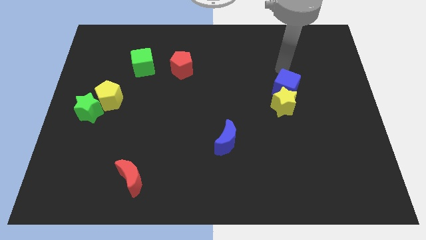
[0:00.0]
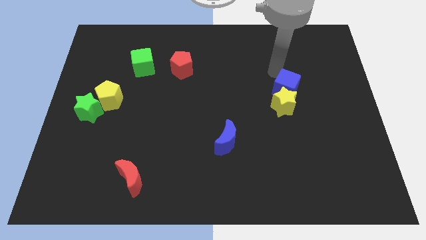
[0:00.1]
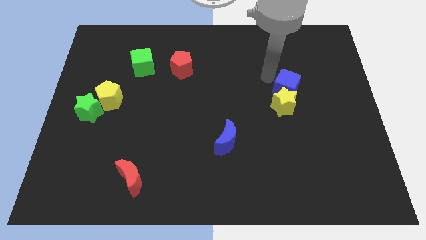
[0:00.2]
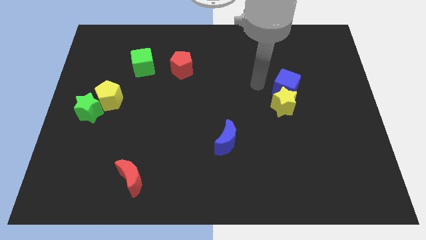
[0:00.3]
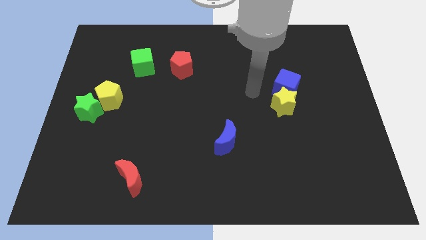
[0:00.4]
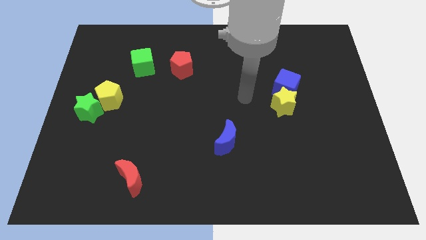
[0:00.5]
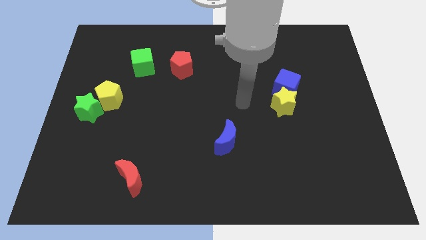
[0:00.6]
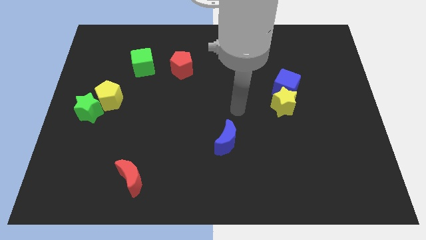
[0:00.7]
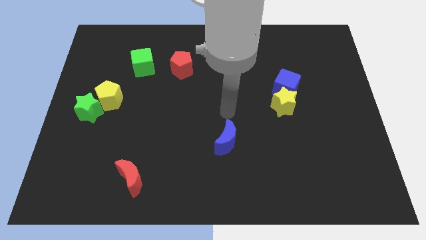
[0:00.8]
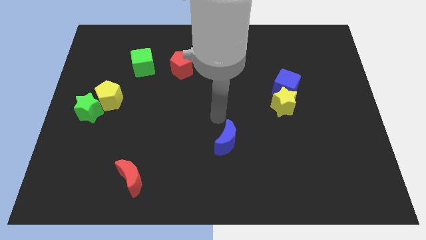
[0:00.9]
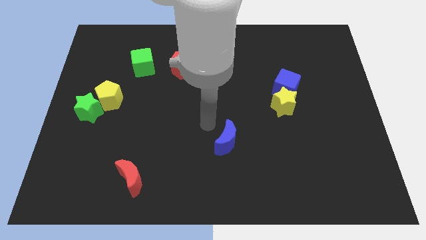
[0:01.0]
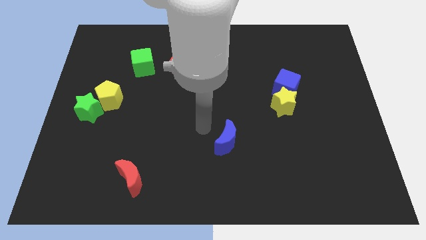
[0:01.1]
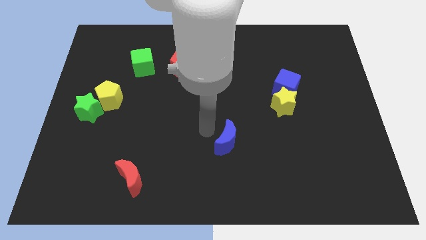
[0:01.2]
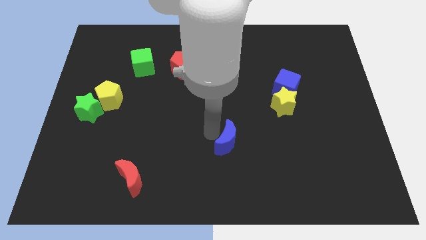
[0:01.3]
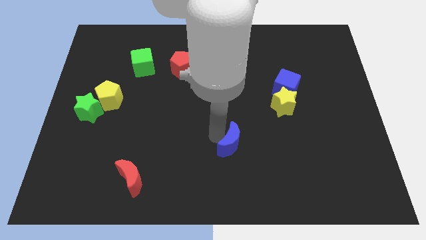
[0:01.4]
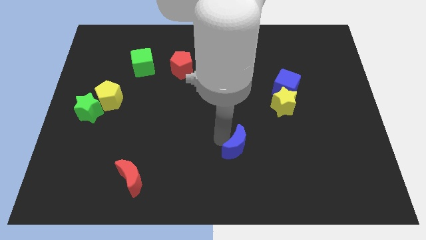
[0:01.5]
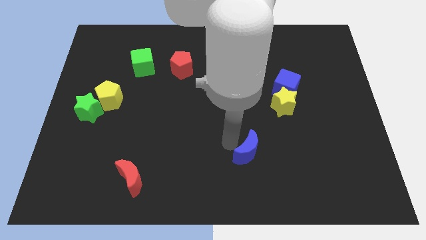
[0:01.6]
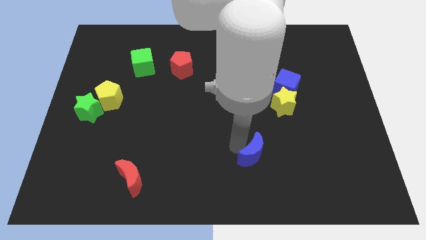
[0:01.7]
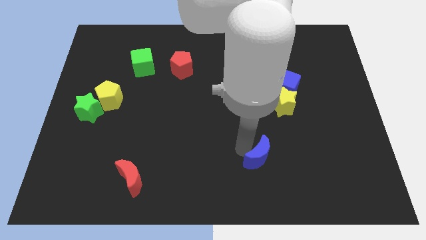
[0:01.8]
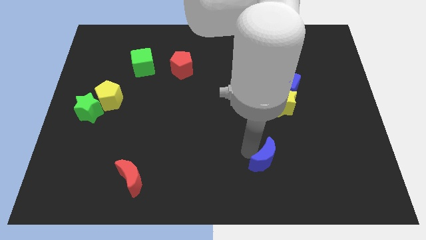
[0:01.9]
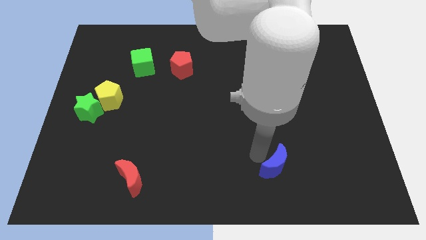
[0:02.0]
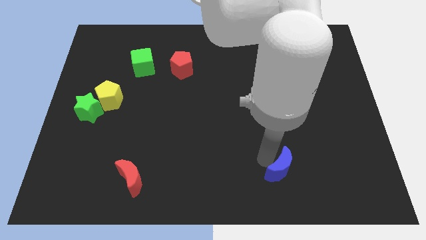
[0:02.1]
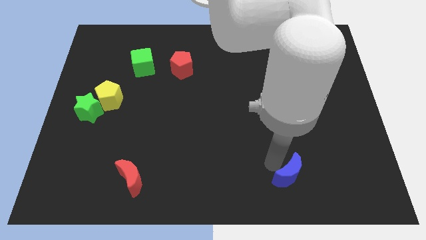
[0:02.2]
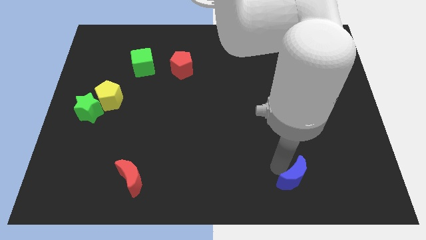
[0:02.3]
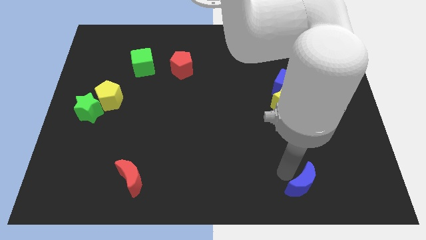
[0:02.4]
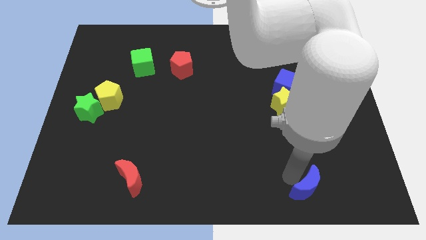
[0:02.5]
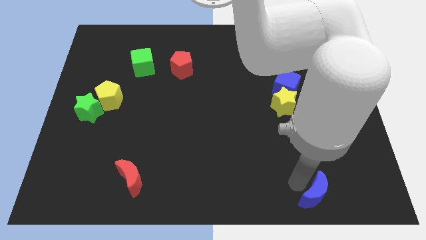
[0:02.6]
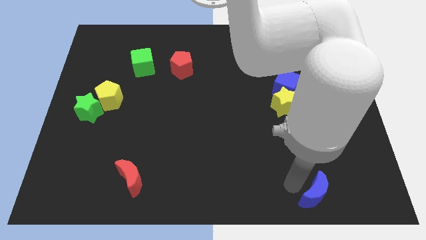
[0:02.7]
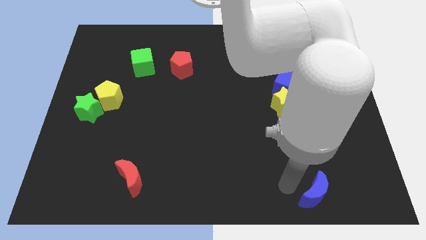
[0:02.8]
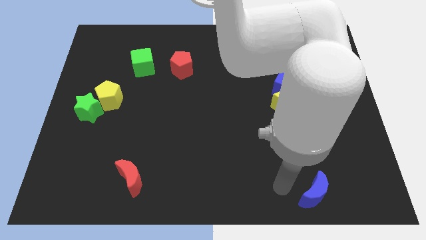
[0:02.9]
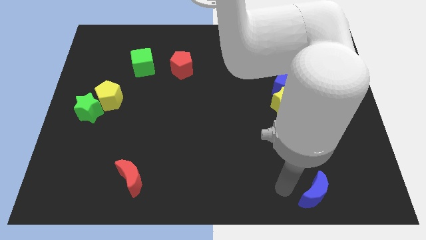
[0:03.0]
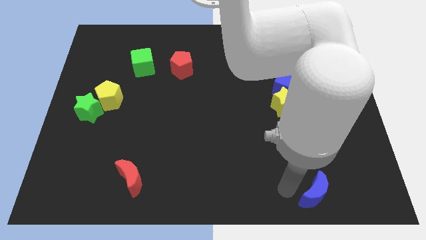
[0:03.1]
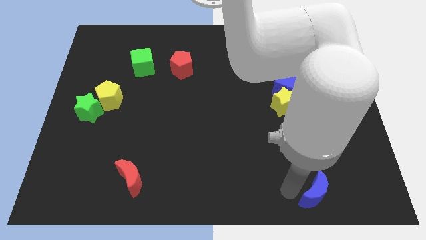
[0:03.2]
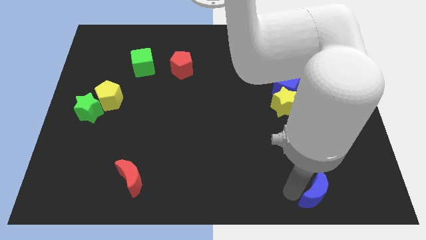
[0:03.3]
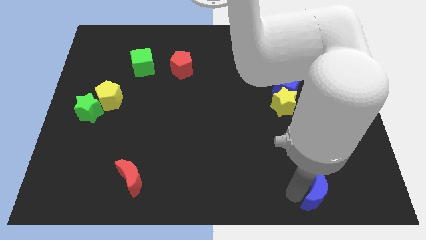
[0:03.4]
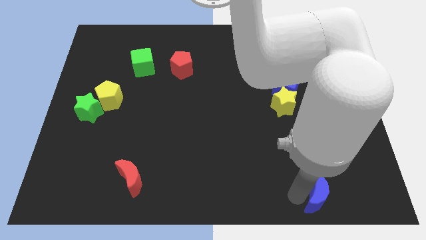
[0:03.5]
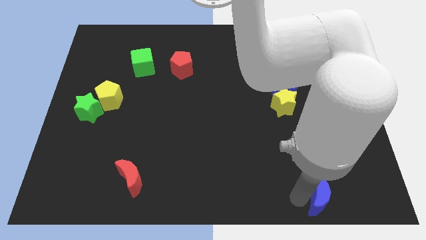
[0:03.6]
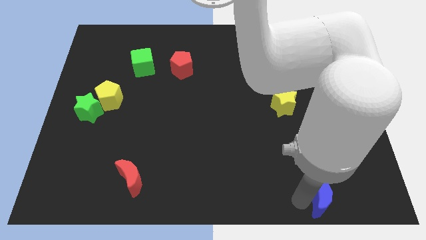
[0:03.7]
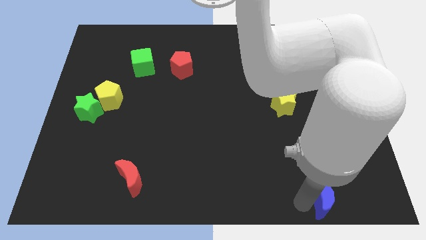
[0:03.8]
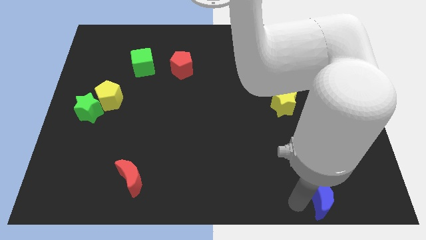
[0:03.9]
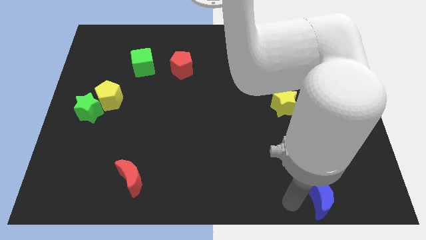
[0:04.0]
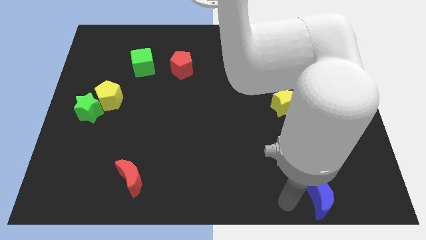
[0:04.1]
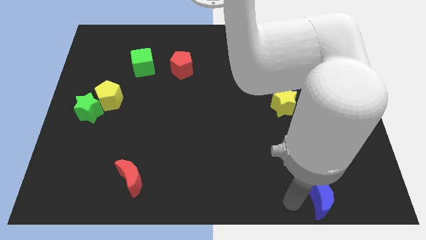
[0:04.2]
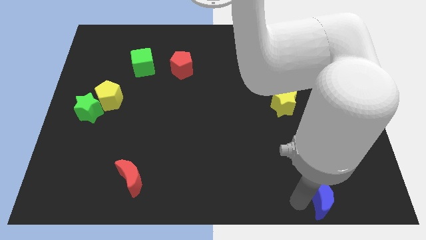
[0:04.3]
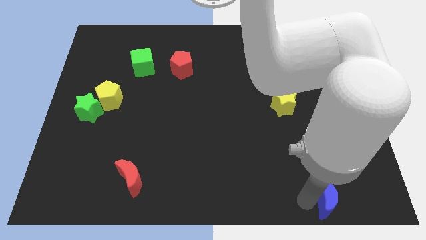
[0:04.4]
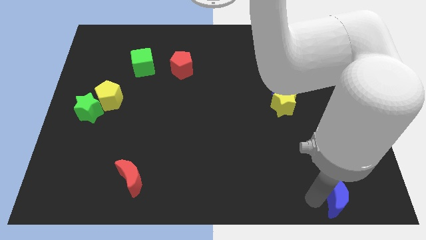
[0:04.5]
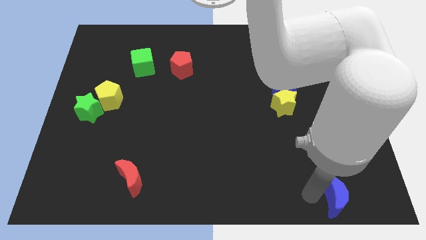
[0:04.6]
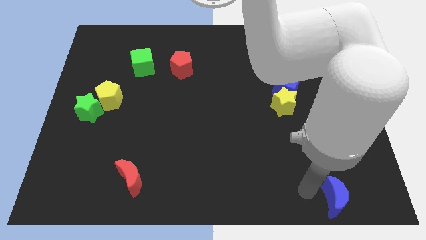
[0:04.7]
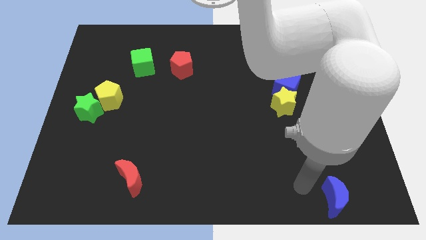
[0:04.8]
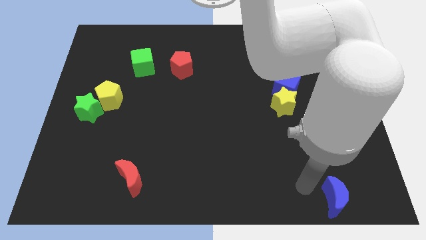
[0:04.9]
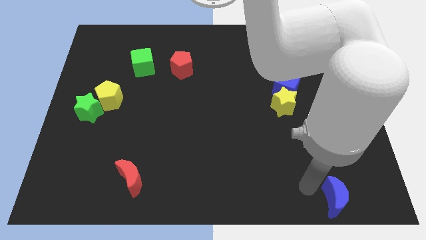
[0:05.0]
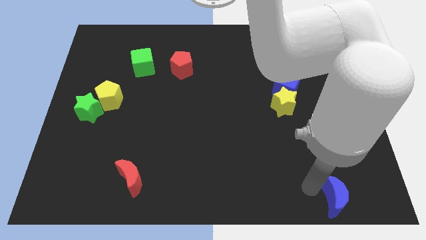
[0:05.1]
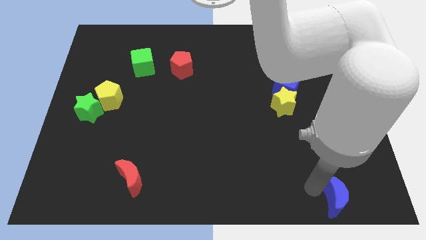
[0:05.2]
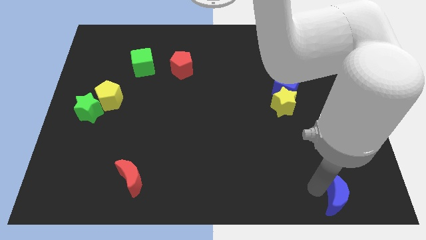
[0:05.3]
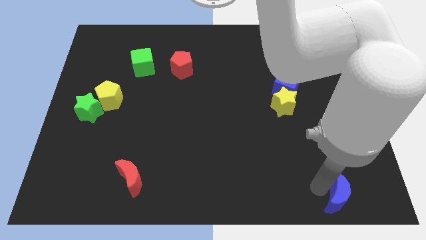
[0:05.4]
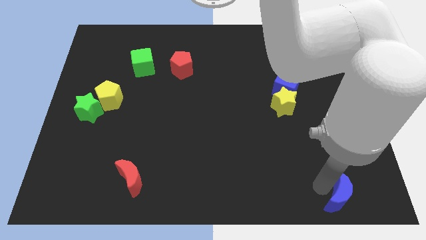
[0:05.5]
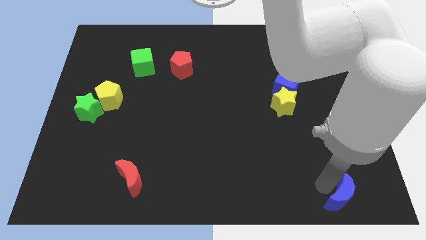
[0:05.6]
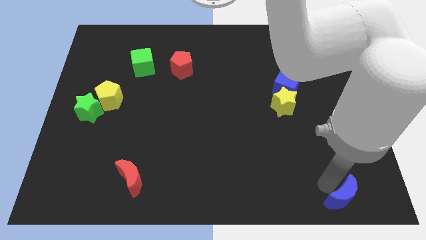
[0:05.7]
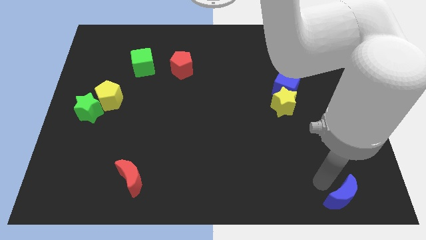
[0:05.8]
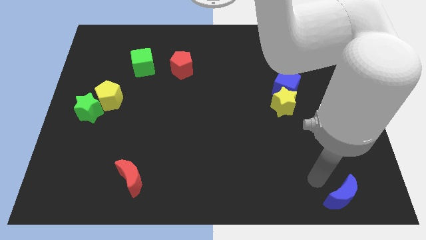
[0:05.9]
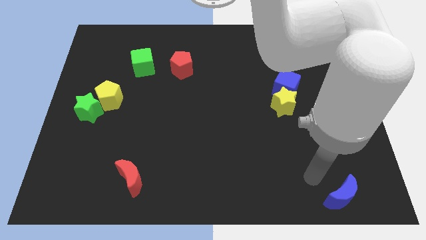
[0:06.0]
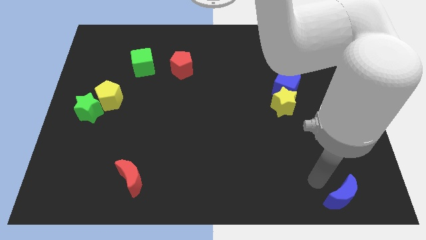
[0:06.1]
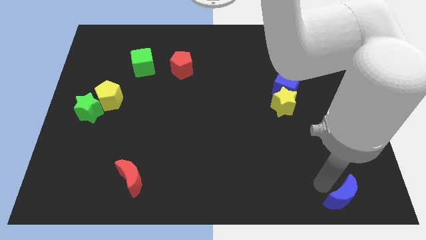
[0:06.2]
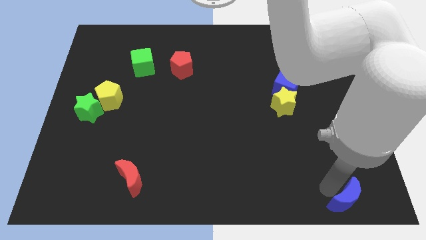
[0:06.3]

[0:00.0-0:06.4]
slide the blue moon to the bottom right of the board
